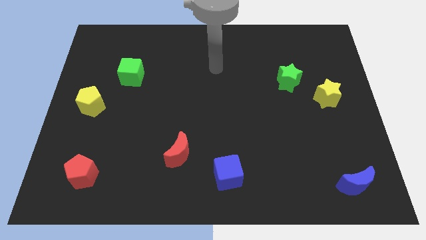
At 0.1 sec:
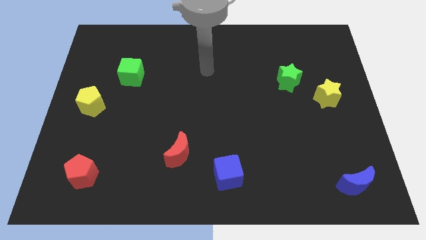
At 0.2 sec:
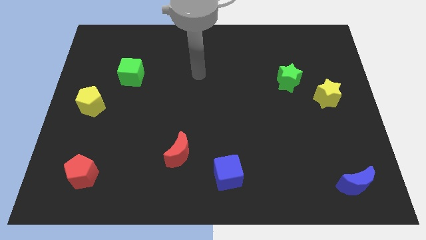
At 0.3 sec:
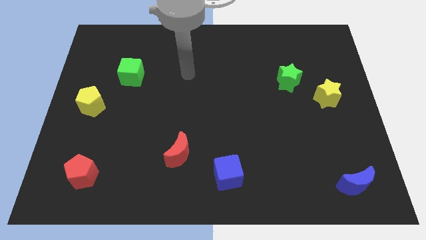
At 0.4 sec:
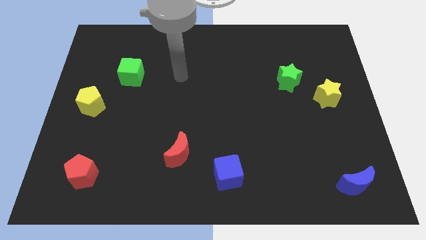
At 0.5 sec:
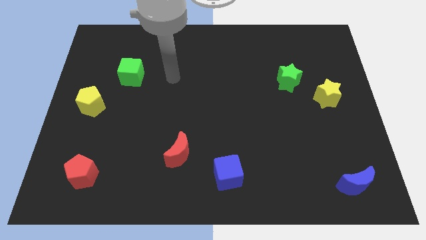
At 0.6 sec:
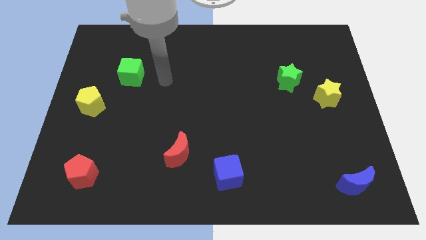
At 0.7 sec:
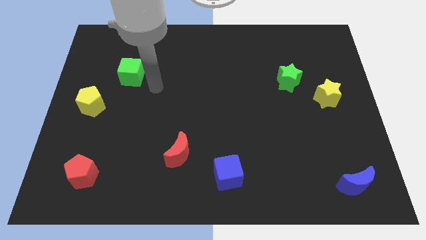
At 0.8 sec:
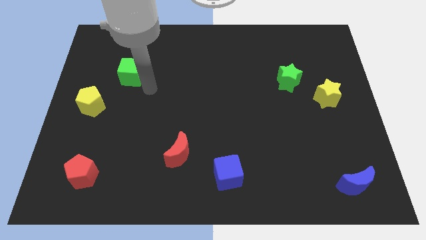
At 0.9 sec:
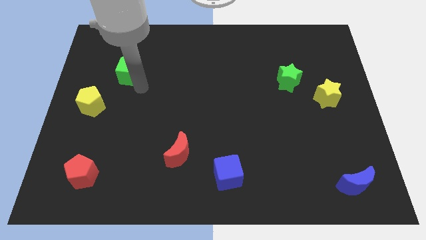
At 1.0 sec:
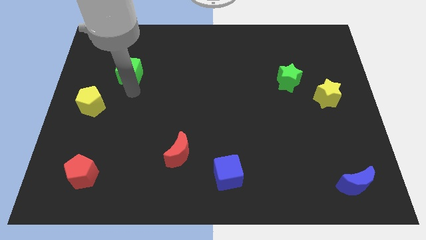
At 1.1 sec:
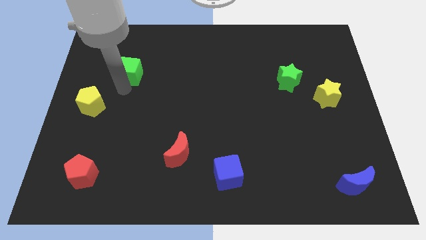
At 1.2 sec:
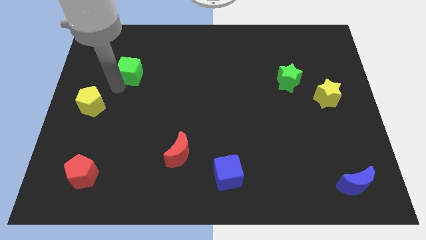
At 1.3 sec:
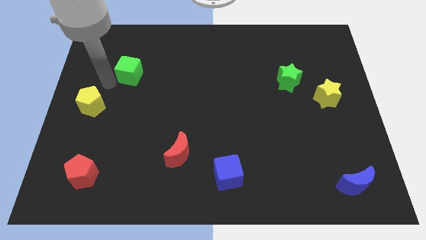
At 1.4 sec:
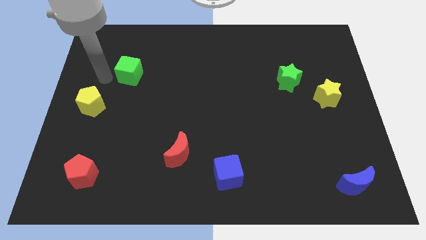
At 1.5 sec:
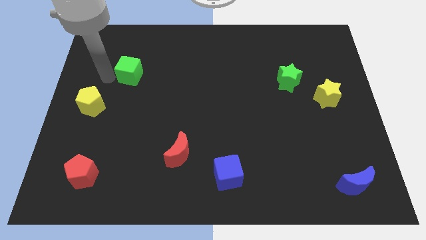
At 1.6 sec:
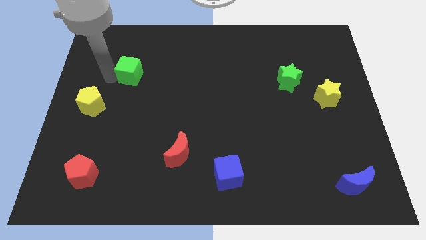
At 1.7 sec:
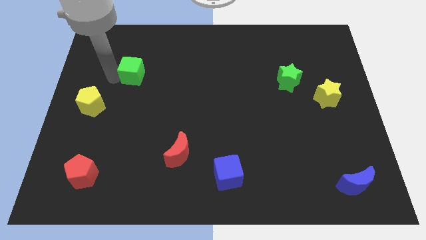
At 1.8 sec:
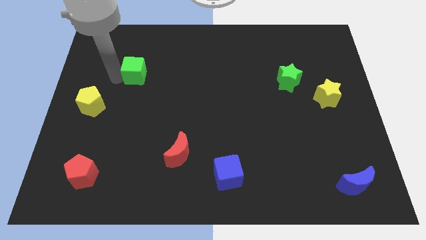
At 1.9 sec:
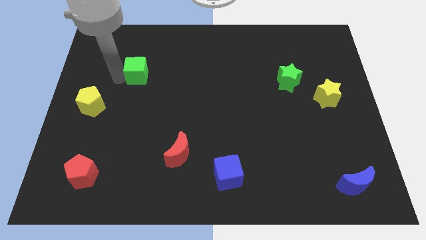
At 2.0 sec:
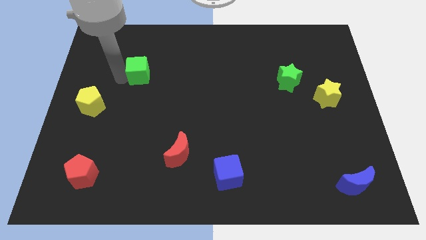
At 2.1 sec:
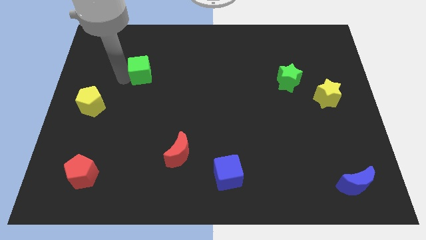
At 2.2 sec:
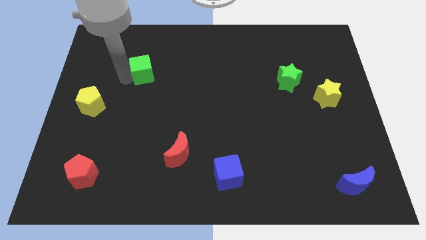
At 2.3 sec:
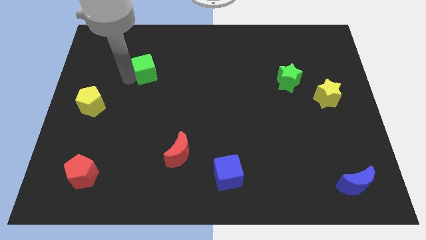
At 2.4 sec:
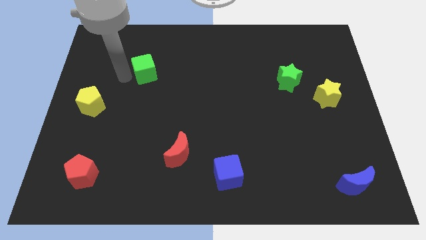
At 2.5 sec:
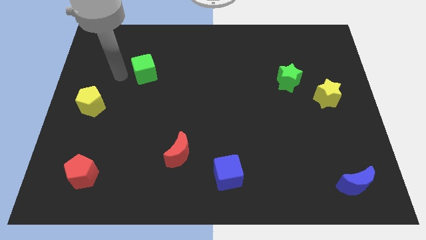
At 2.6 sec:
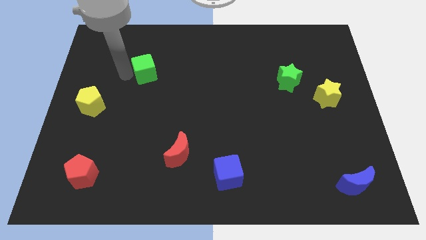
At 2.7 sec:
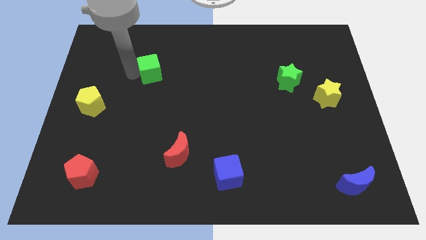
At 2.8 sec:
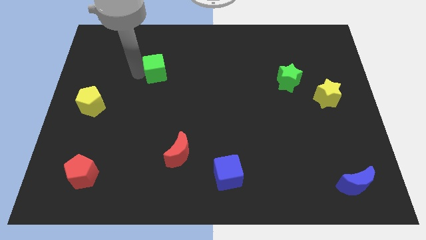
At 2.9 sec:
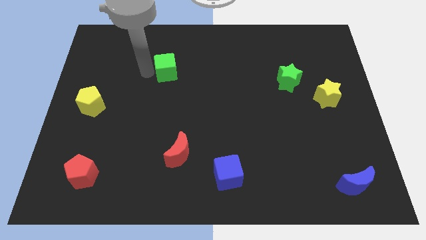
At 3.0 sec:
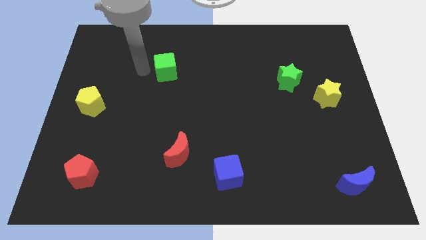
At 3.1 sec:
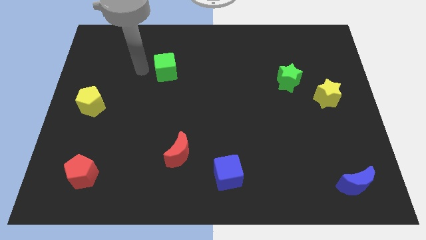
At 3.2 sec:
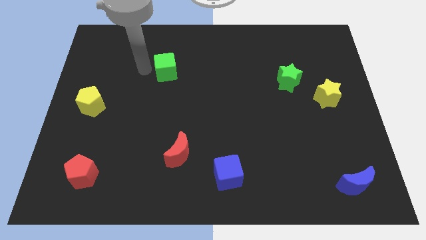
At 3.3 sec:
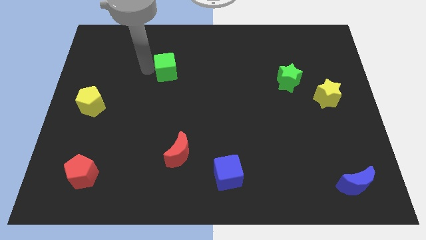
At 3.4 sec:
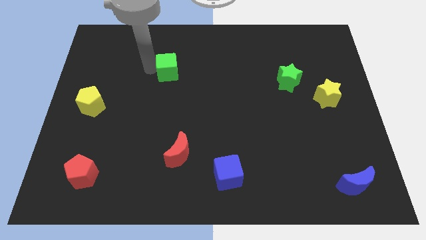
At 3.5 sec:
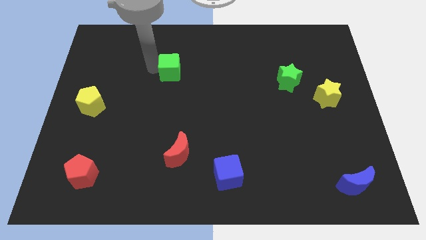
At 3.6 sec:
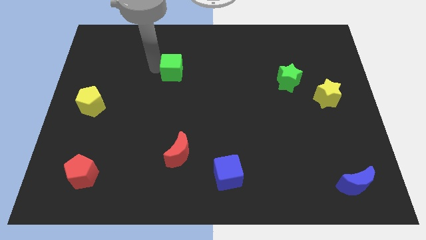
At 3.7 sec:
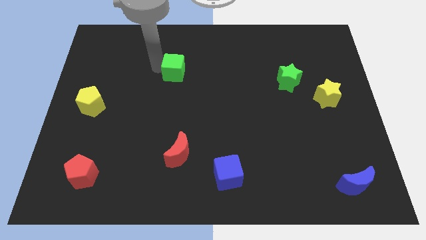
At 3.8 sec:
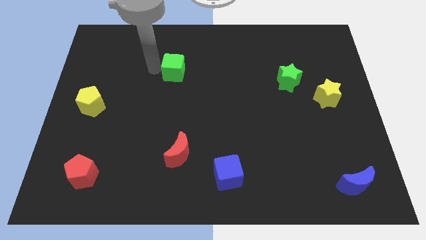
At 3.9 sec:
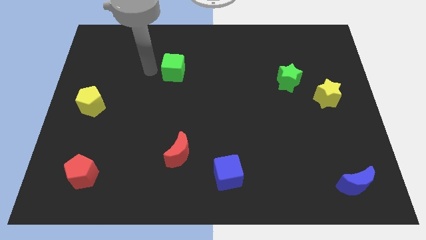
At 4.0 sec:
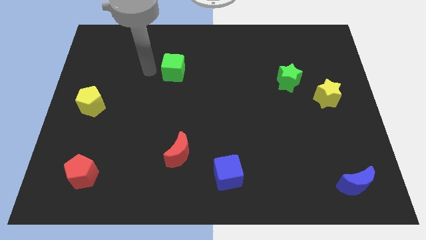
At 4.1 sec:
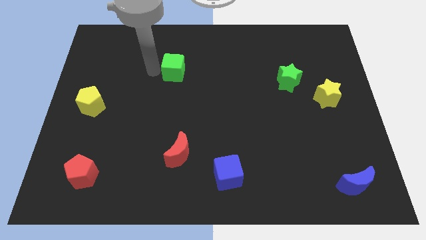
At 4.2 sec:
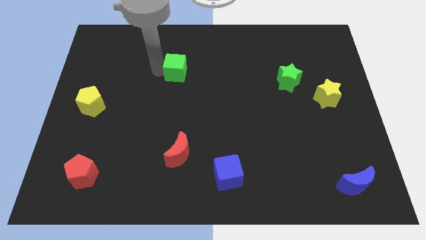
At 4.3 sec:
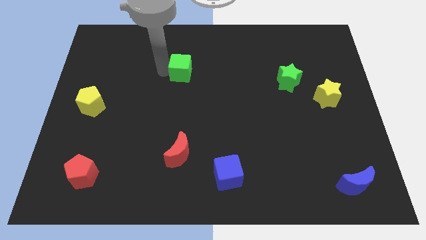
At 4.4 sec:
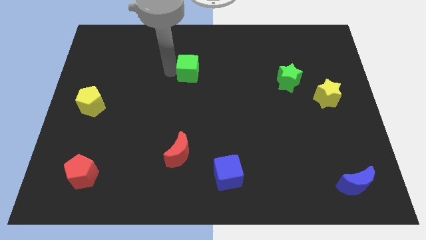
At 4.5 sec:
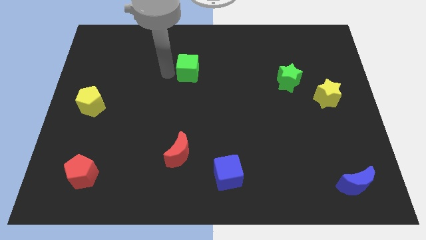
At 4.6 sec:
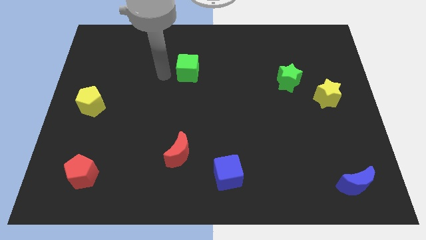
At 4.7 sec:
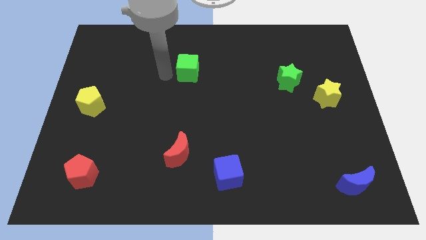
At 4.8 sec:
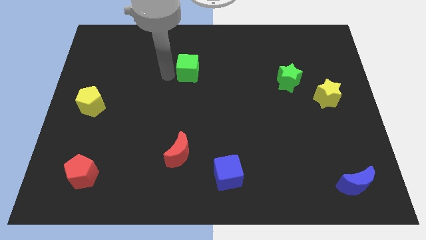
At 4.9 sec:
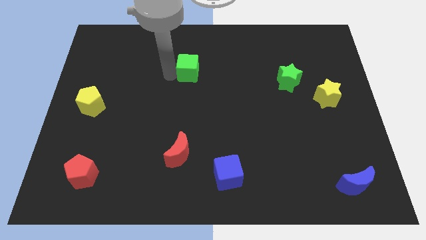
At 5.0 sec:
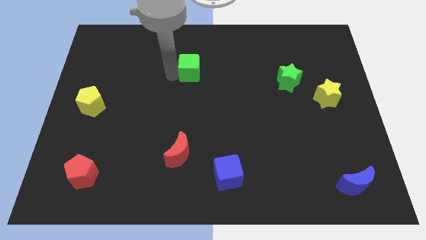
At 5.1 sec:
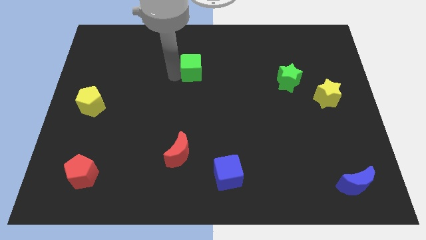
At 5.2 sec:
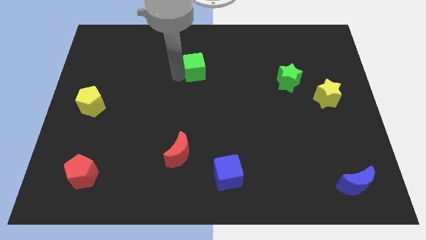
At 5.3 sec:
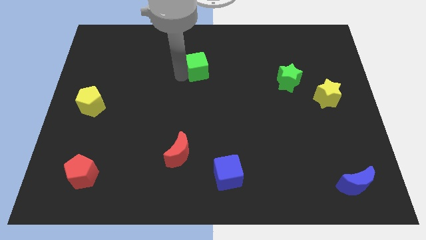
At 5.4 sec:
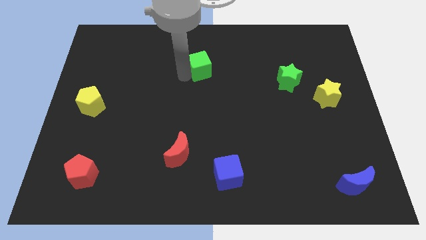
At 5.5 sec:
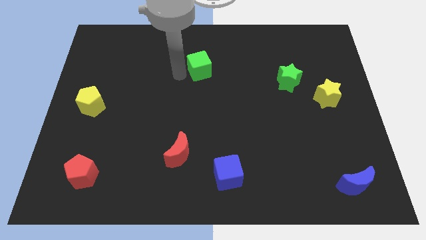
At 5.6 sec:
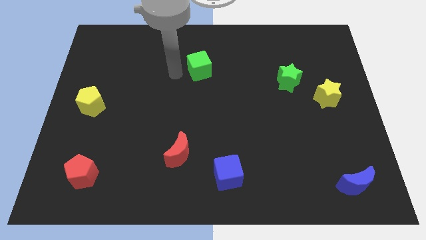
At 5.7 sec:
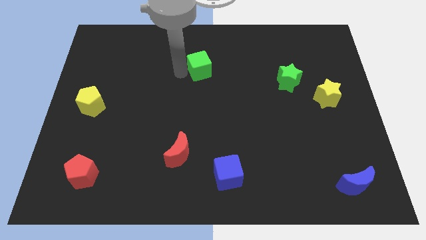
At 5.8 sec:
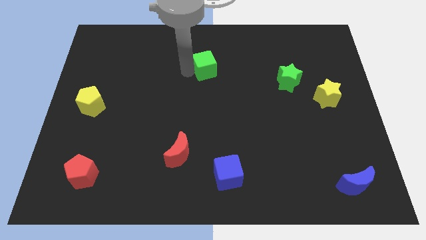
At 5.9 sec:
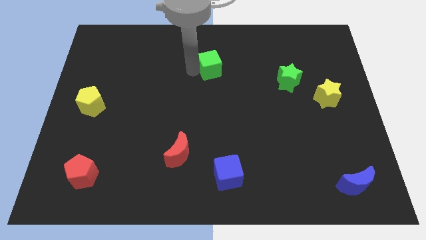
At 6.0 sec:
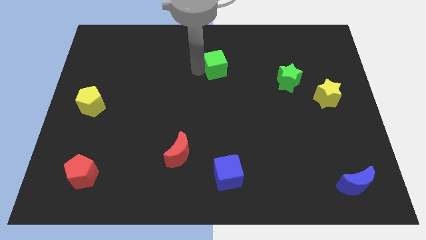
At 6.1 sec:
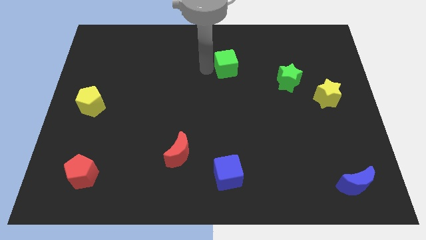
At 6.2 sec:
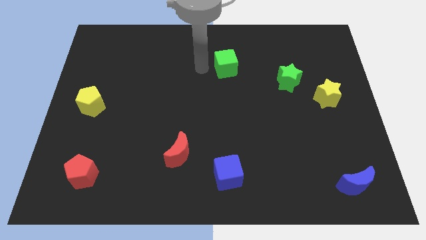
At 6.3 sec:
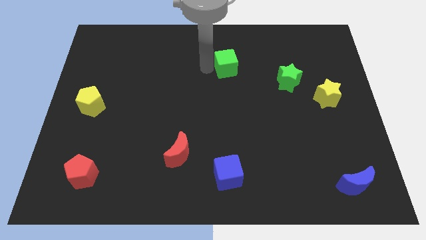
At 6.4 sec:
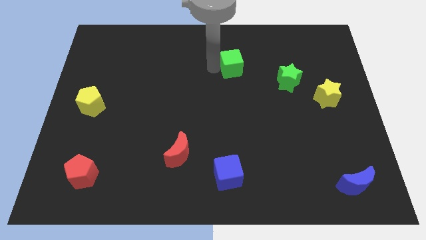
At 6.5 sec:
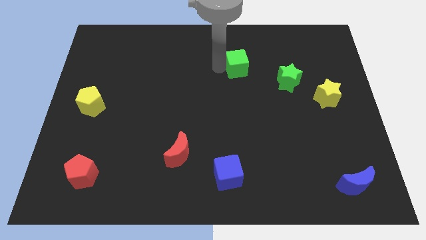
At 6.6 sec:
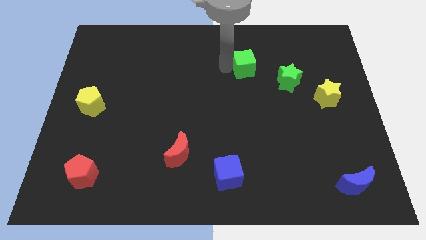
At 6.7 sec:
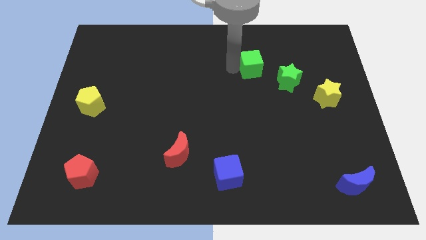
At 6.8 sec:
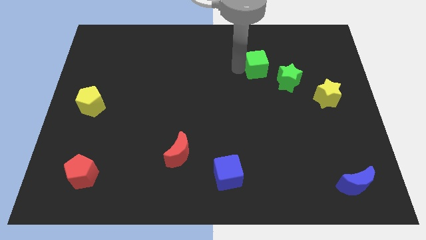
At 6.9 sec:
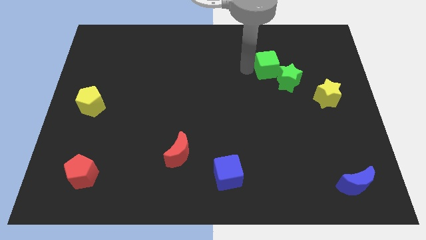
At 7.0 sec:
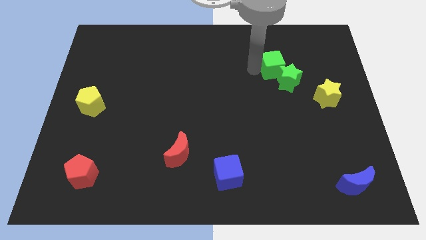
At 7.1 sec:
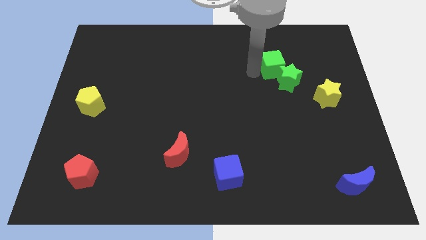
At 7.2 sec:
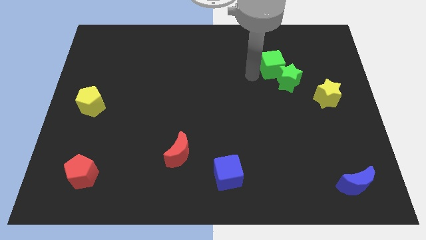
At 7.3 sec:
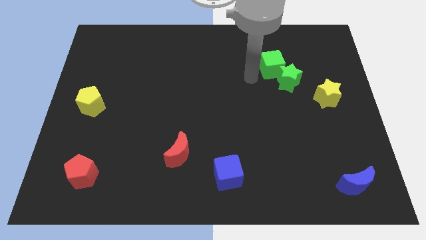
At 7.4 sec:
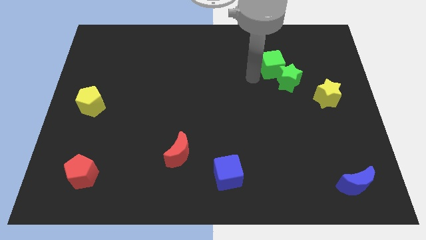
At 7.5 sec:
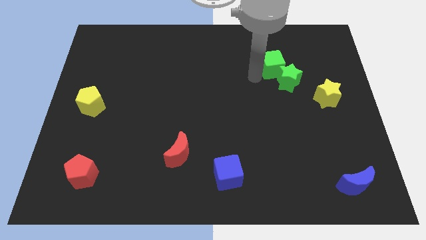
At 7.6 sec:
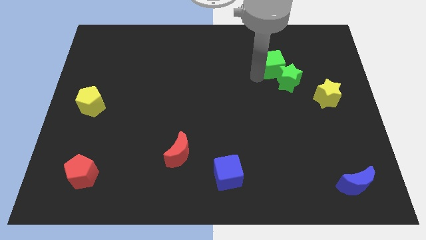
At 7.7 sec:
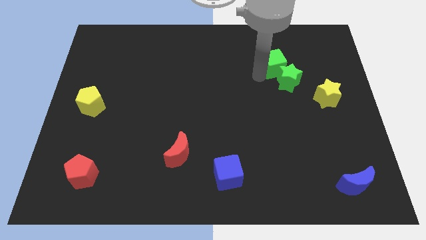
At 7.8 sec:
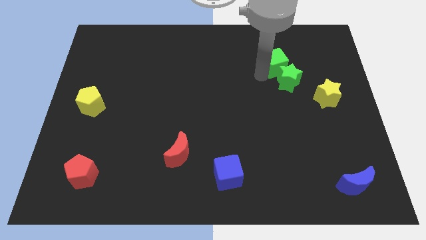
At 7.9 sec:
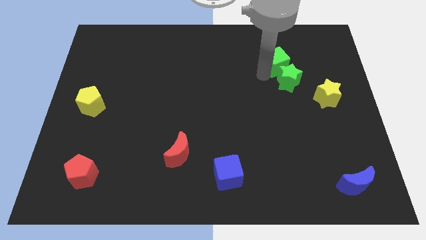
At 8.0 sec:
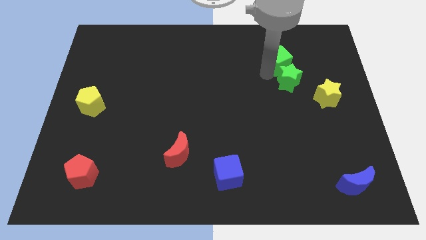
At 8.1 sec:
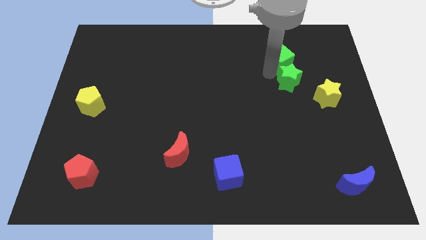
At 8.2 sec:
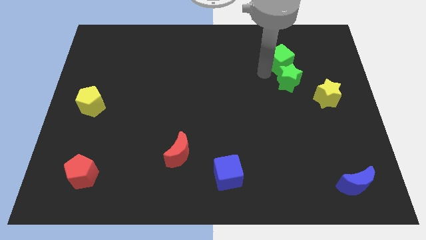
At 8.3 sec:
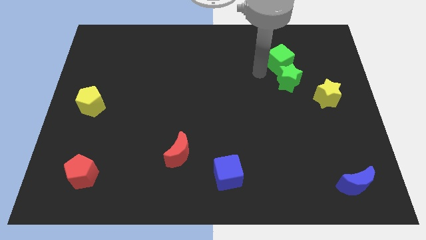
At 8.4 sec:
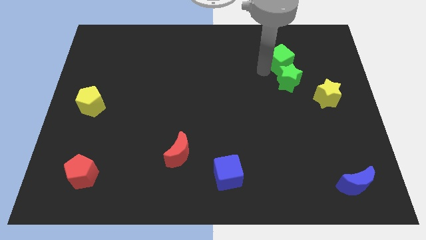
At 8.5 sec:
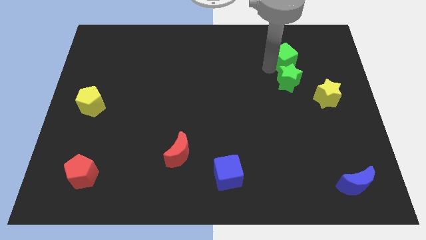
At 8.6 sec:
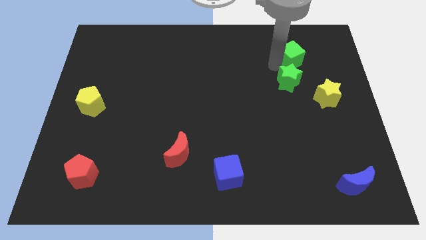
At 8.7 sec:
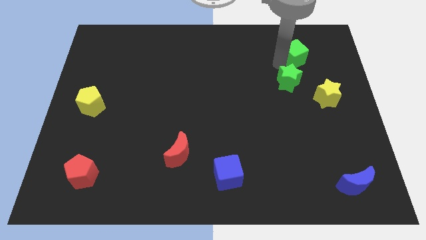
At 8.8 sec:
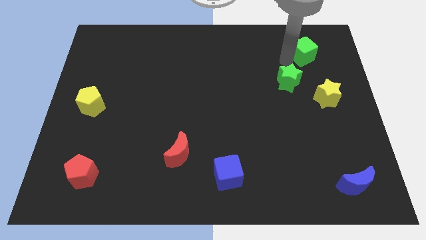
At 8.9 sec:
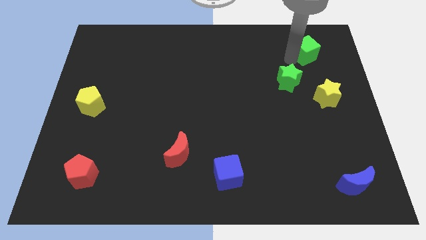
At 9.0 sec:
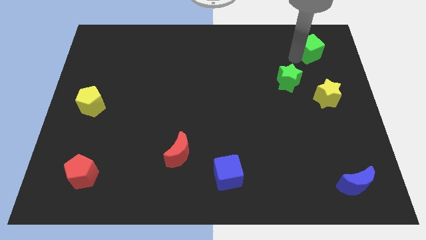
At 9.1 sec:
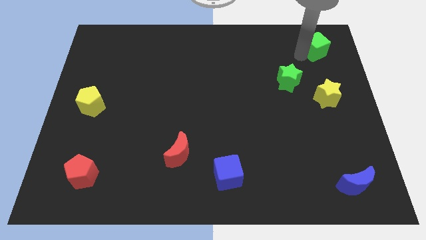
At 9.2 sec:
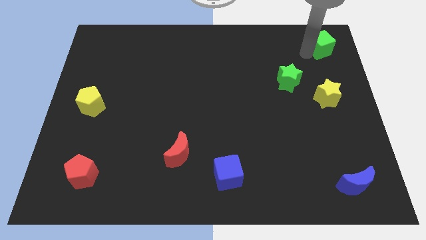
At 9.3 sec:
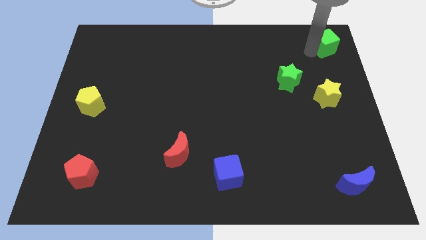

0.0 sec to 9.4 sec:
move the green cube to the top right
